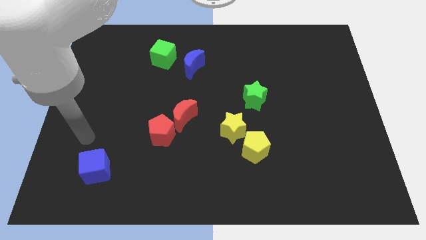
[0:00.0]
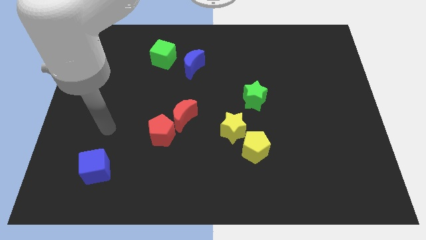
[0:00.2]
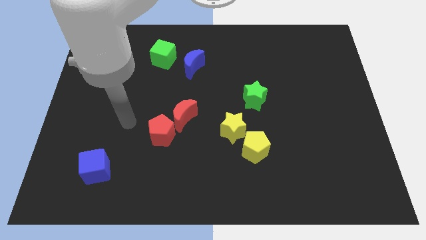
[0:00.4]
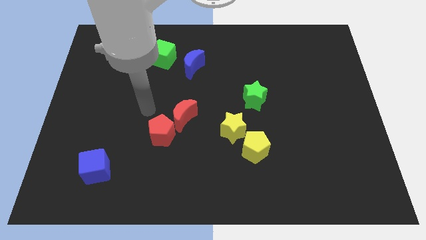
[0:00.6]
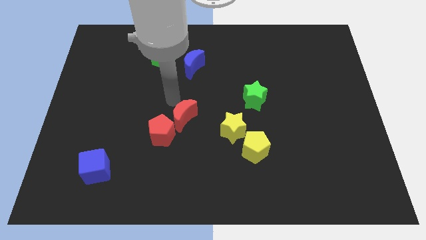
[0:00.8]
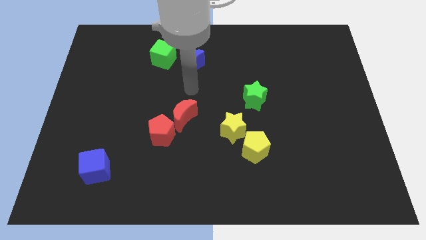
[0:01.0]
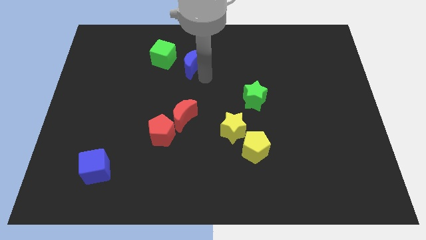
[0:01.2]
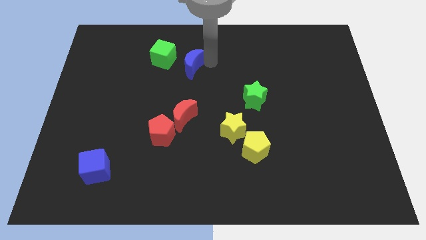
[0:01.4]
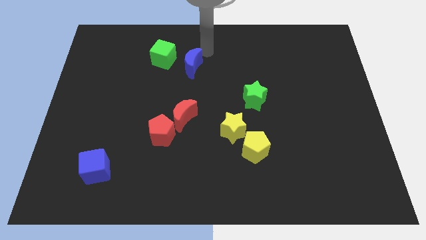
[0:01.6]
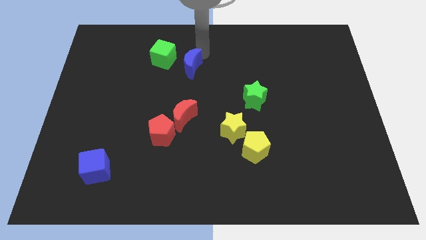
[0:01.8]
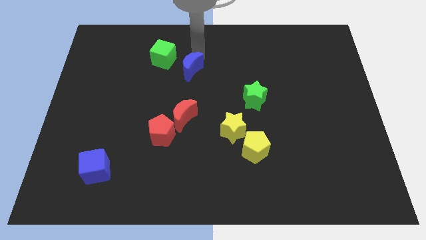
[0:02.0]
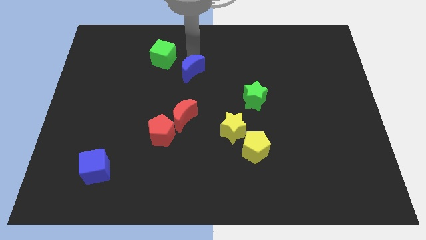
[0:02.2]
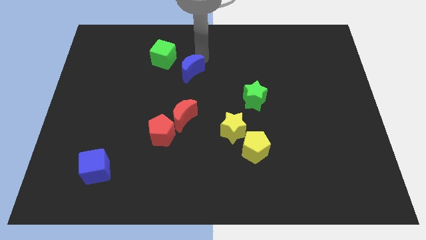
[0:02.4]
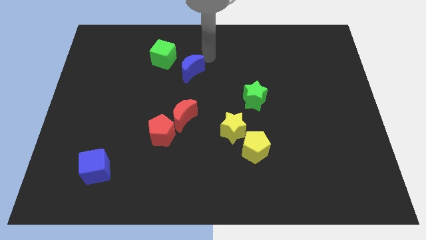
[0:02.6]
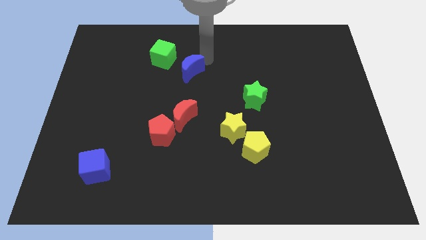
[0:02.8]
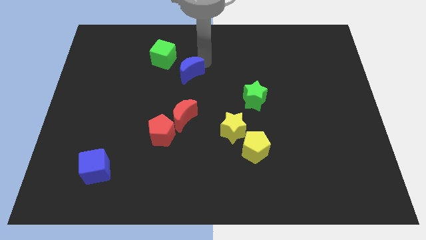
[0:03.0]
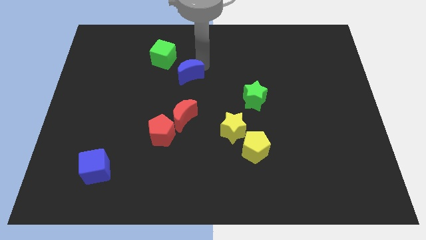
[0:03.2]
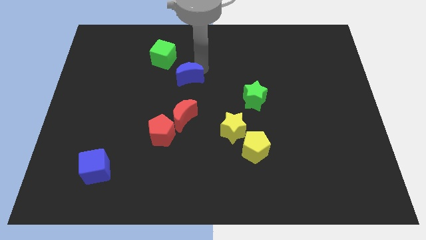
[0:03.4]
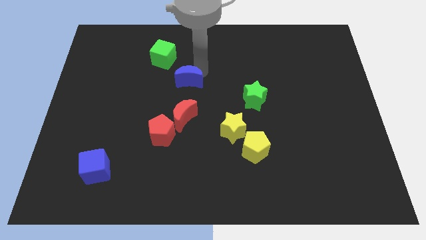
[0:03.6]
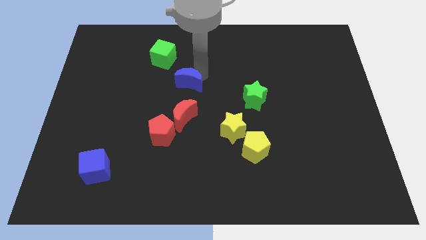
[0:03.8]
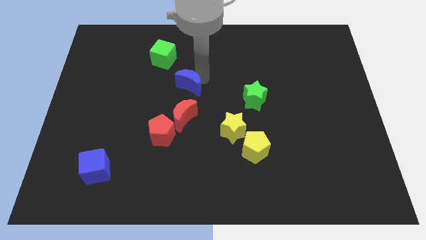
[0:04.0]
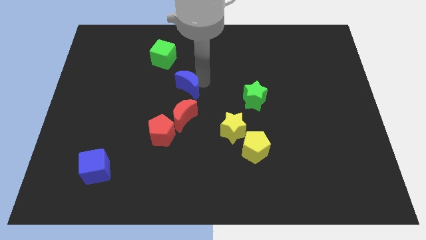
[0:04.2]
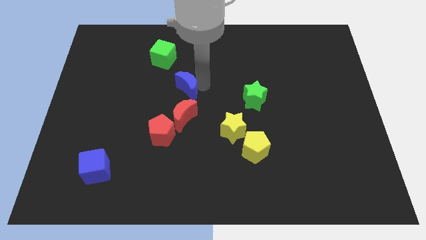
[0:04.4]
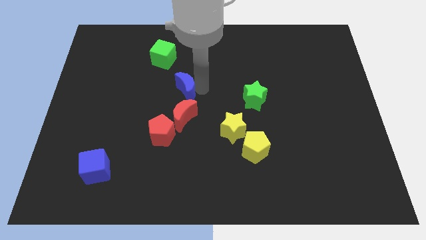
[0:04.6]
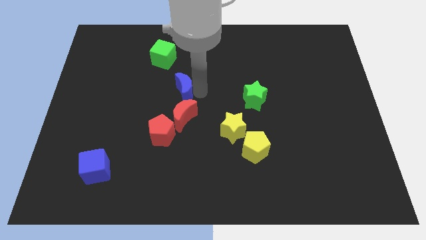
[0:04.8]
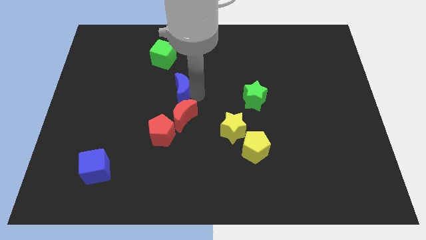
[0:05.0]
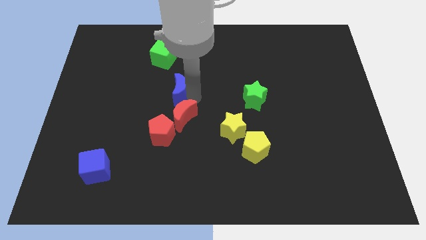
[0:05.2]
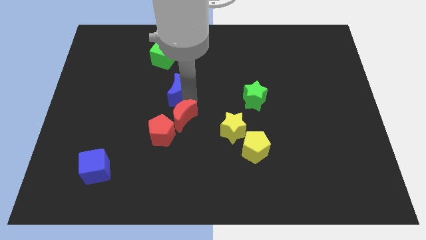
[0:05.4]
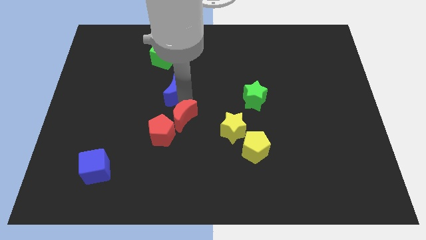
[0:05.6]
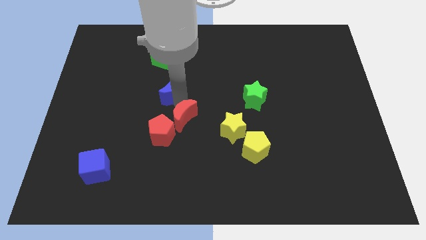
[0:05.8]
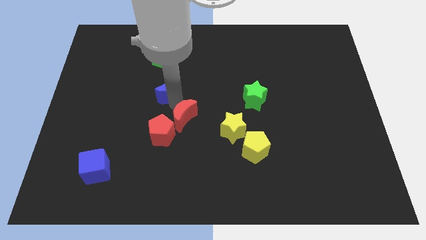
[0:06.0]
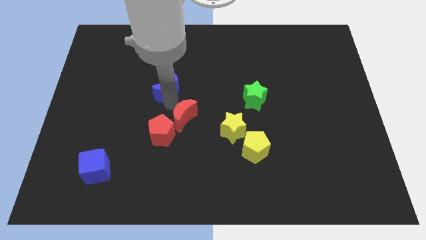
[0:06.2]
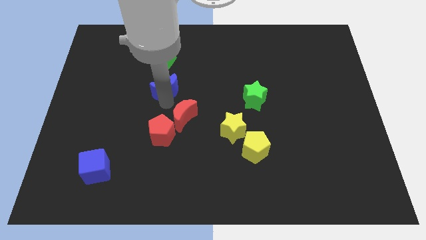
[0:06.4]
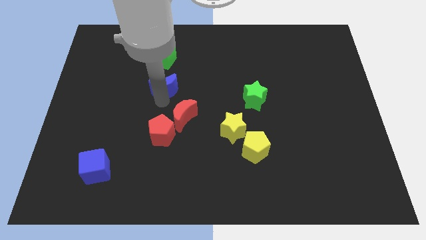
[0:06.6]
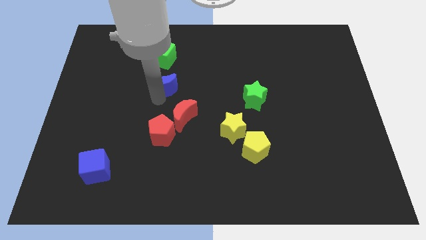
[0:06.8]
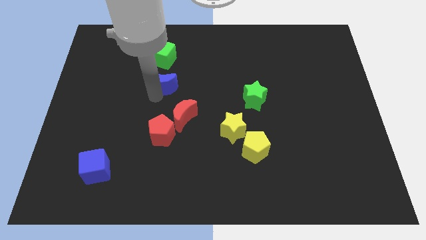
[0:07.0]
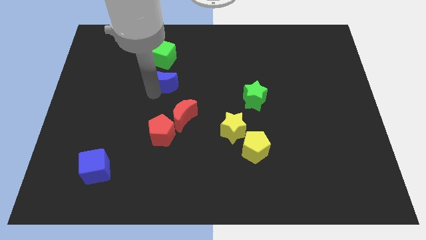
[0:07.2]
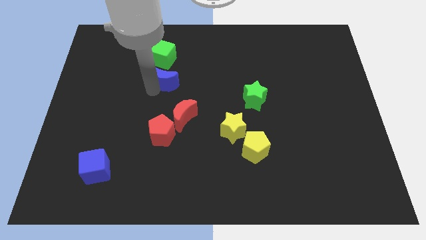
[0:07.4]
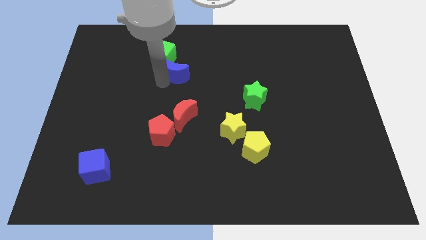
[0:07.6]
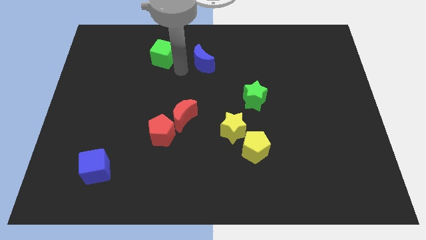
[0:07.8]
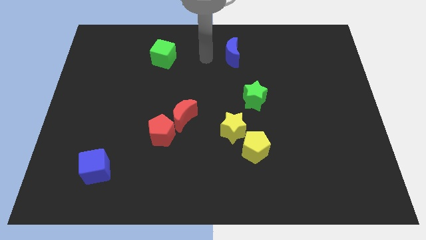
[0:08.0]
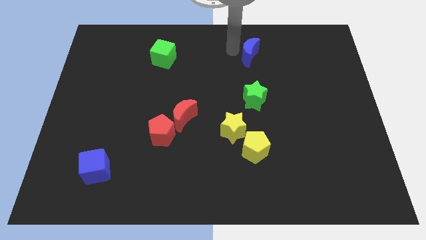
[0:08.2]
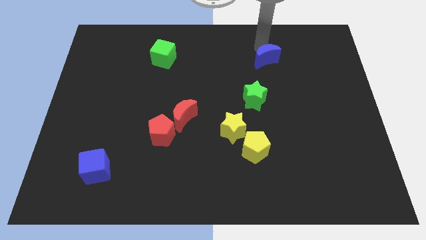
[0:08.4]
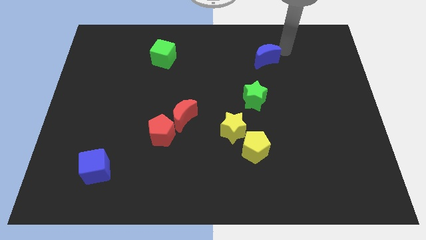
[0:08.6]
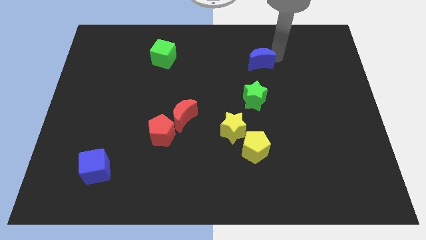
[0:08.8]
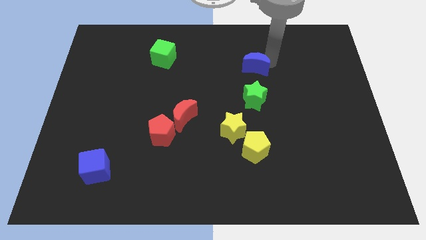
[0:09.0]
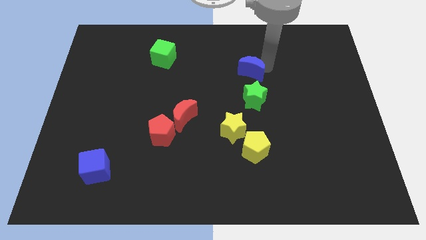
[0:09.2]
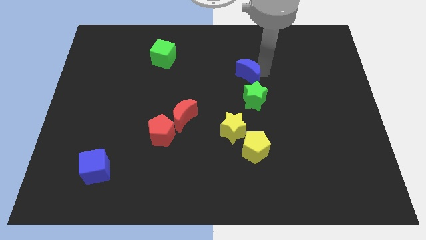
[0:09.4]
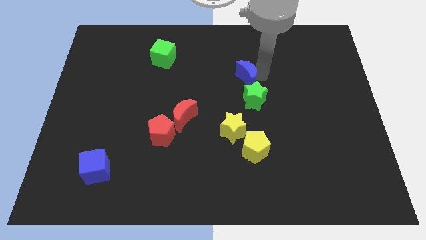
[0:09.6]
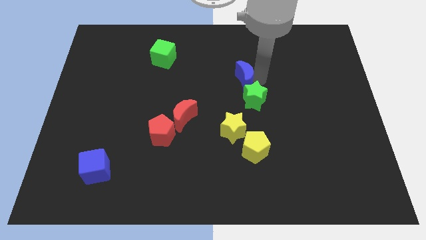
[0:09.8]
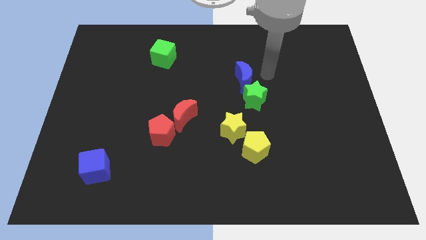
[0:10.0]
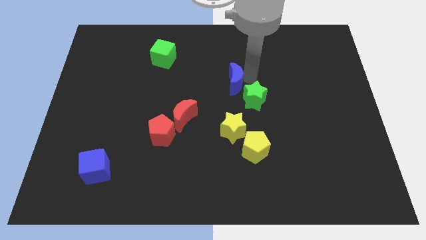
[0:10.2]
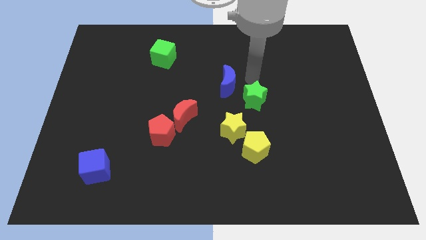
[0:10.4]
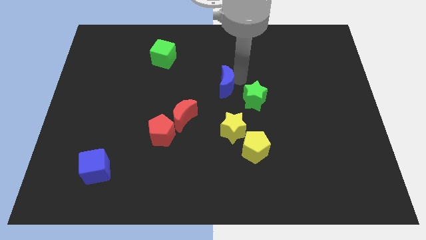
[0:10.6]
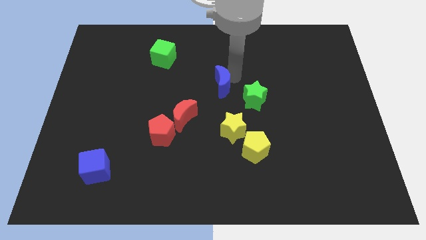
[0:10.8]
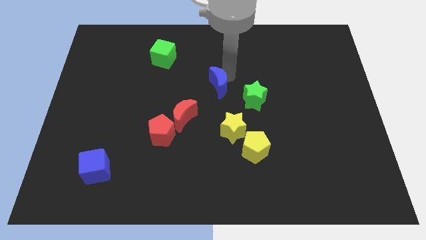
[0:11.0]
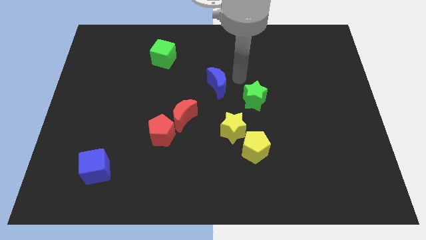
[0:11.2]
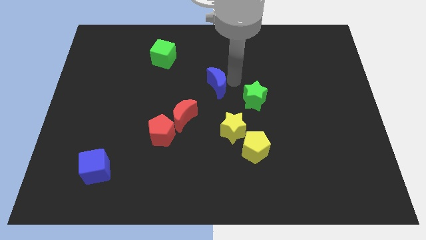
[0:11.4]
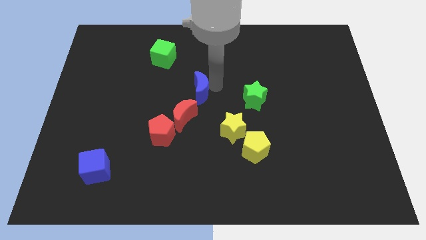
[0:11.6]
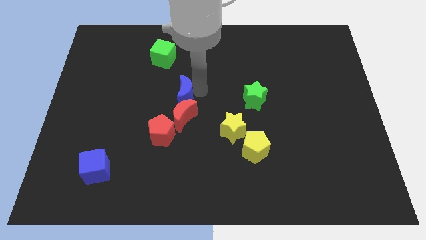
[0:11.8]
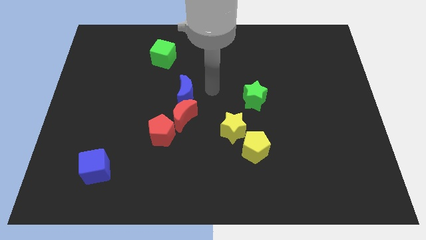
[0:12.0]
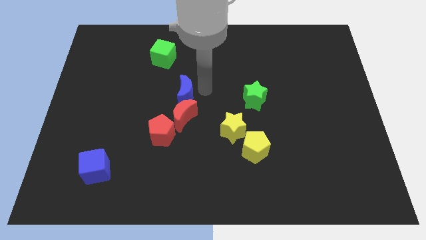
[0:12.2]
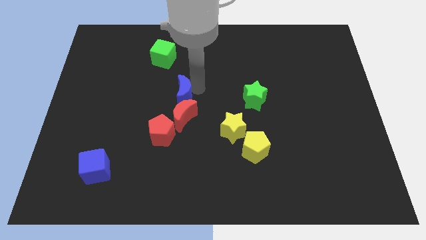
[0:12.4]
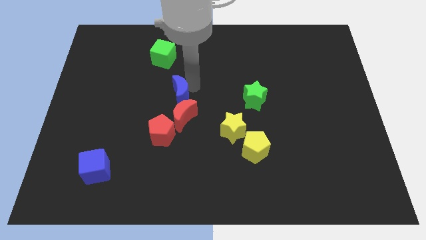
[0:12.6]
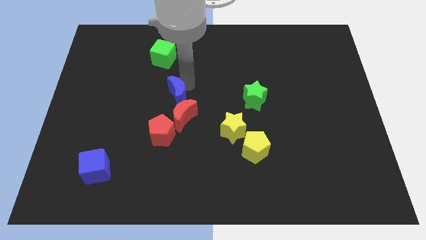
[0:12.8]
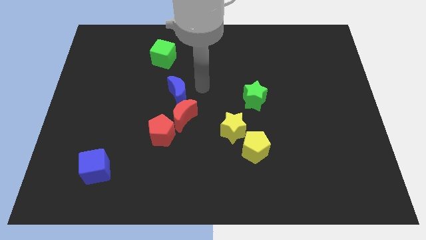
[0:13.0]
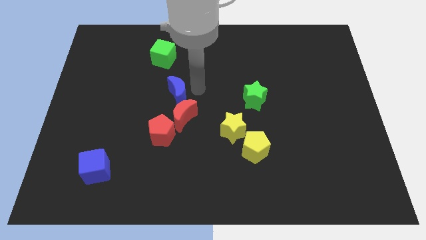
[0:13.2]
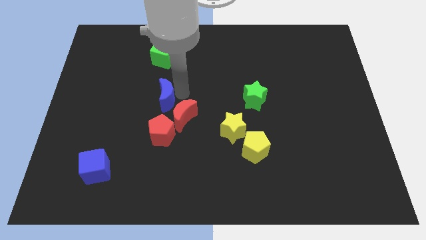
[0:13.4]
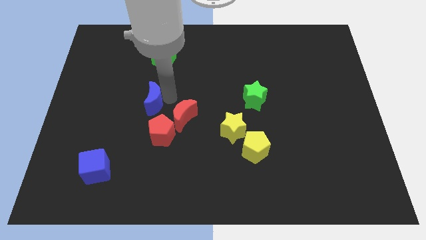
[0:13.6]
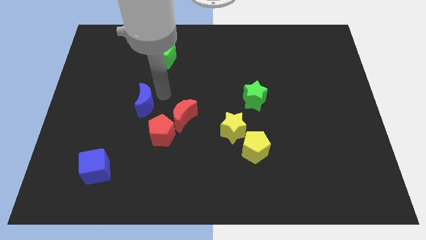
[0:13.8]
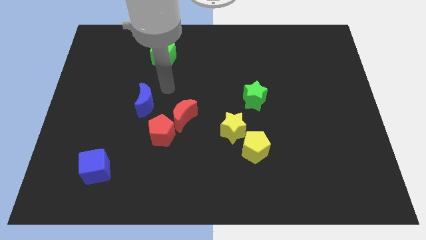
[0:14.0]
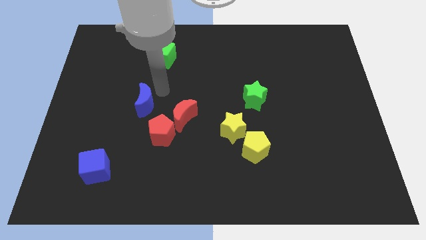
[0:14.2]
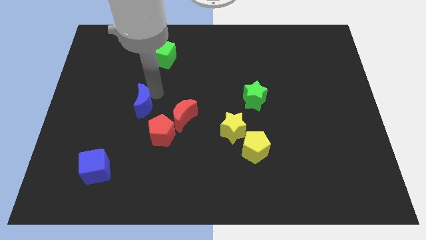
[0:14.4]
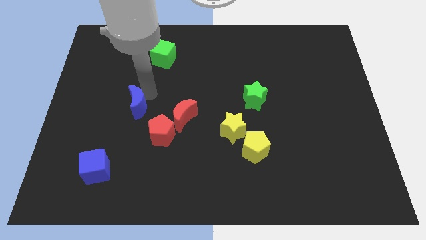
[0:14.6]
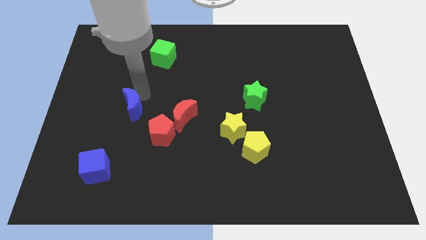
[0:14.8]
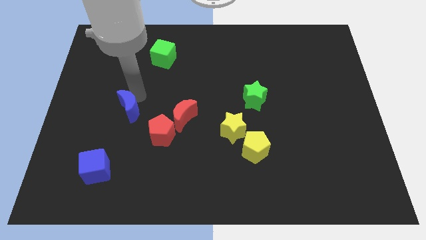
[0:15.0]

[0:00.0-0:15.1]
push the blue moon downwards and left diagonally

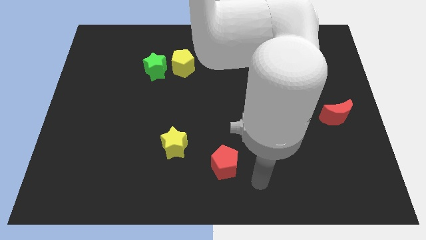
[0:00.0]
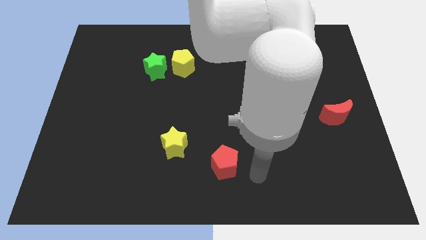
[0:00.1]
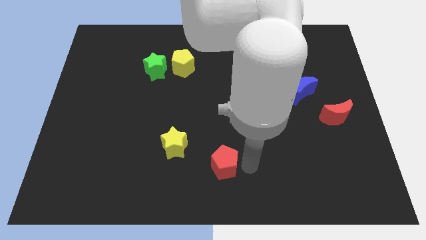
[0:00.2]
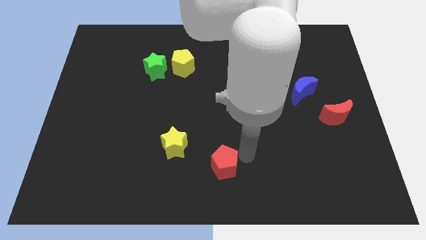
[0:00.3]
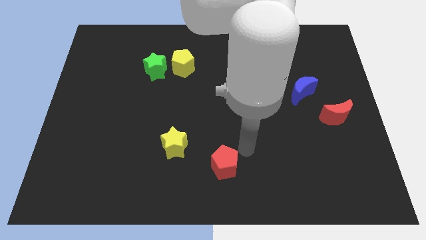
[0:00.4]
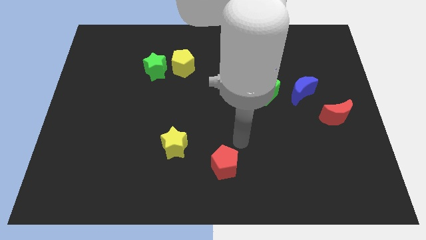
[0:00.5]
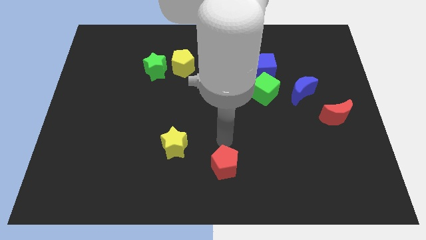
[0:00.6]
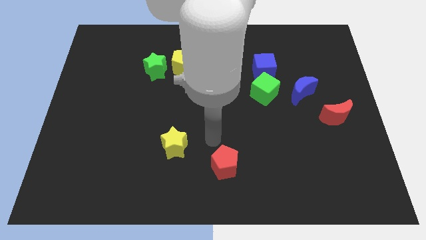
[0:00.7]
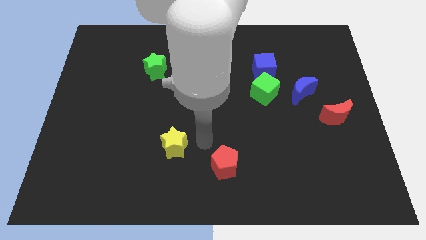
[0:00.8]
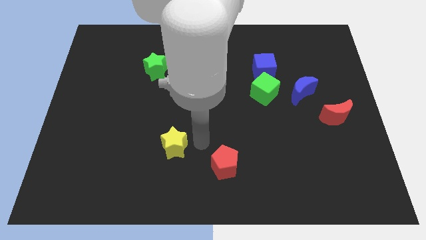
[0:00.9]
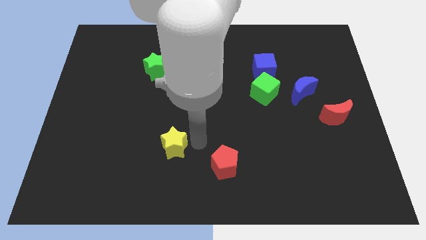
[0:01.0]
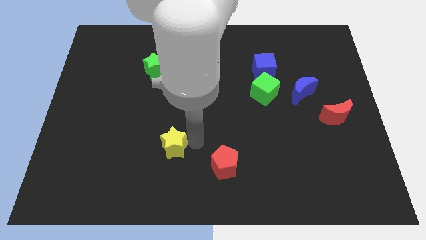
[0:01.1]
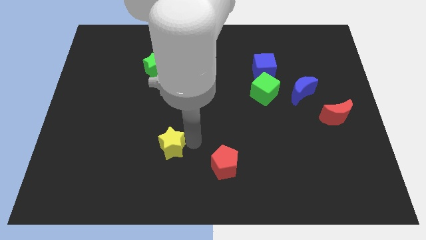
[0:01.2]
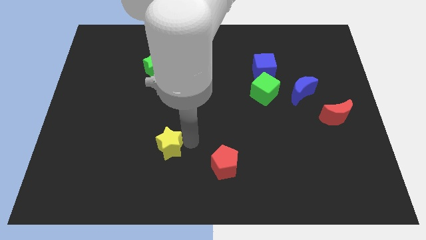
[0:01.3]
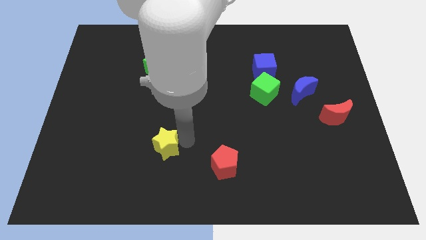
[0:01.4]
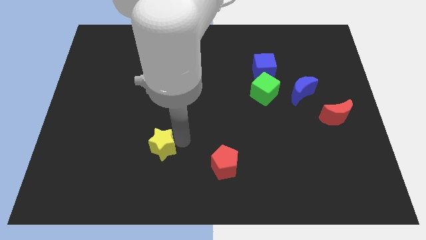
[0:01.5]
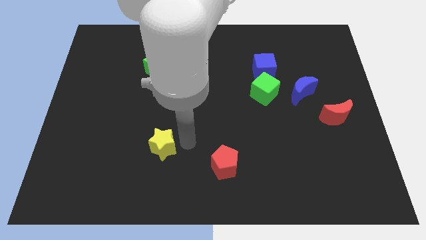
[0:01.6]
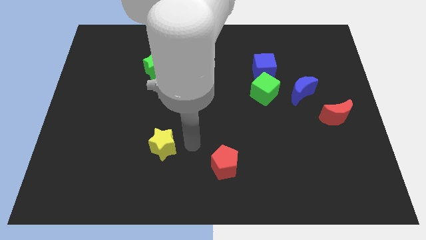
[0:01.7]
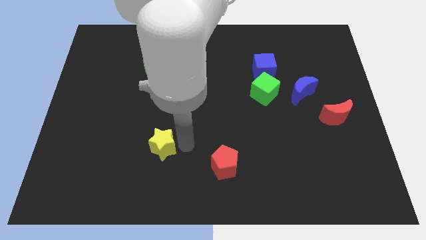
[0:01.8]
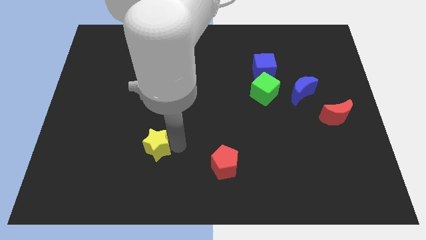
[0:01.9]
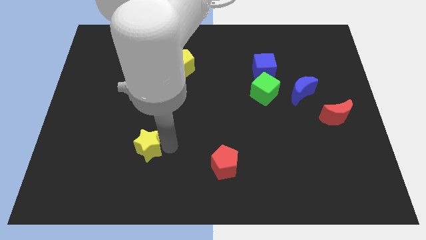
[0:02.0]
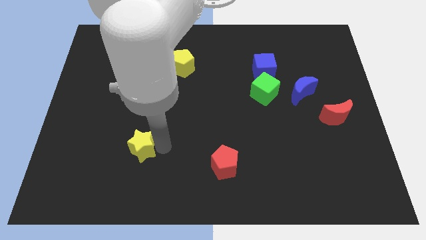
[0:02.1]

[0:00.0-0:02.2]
move the yellow star to the left a little
